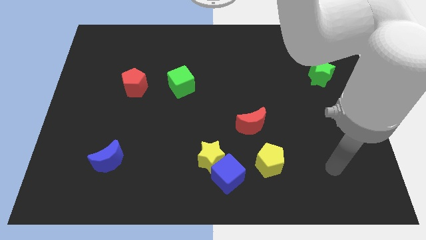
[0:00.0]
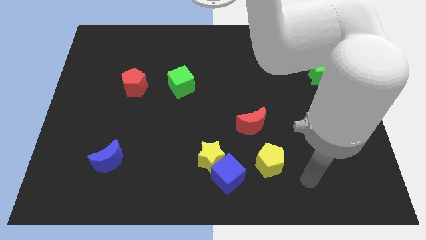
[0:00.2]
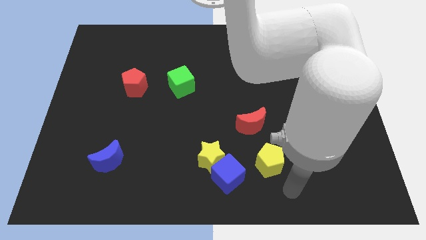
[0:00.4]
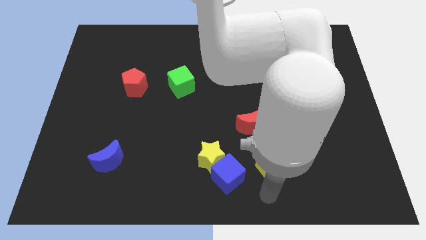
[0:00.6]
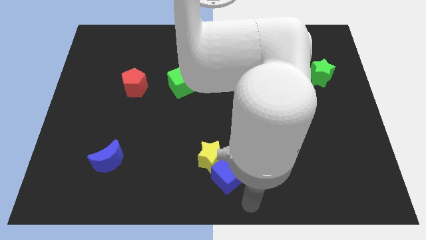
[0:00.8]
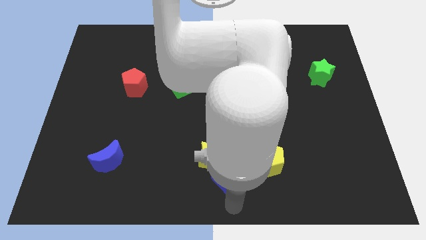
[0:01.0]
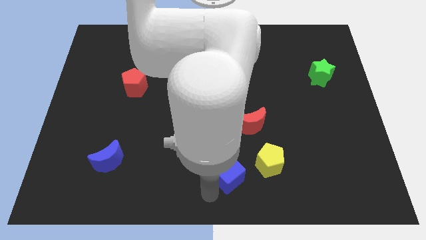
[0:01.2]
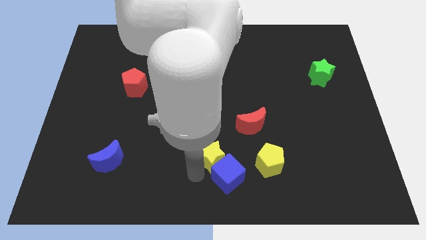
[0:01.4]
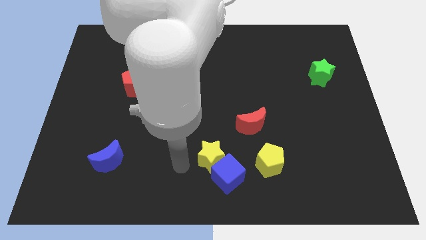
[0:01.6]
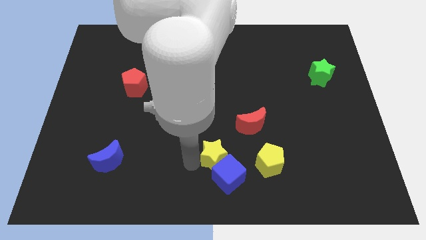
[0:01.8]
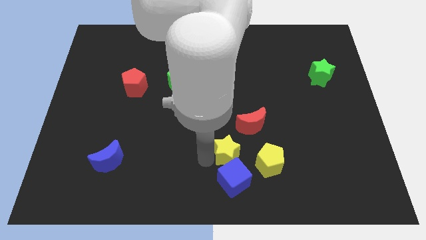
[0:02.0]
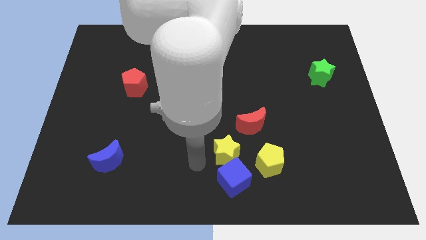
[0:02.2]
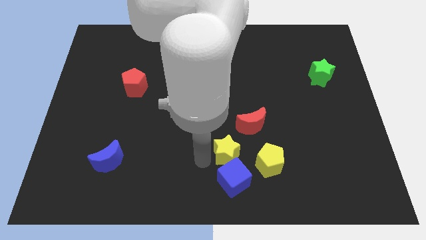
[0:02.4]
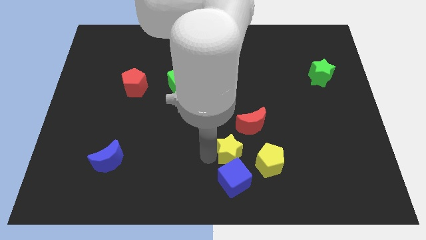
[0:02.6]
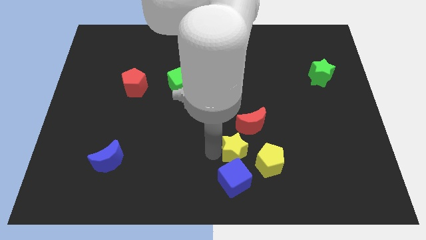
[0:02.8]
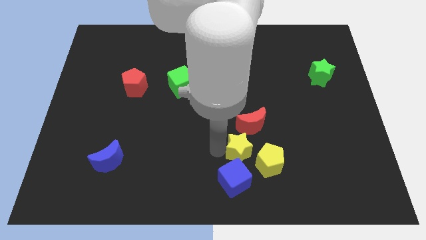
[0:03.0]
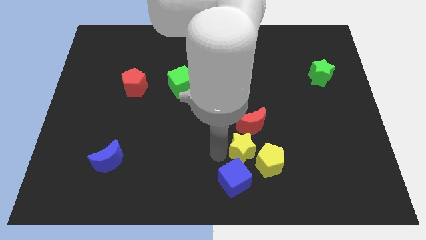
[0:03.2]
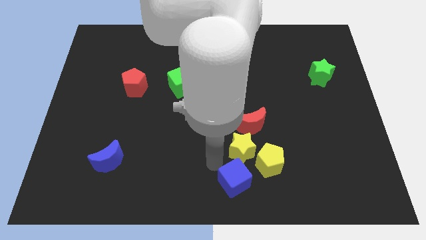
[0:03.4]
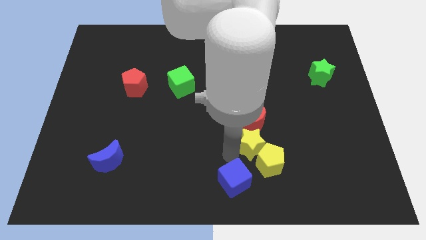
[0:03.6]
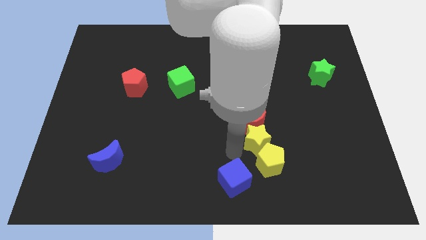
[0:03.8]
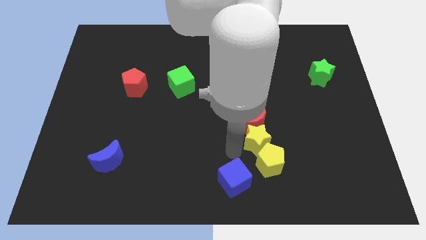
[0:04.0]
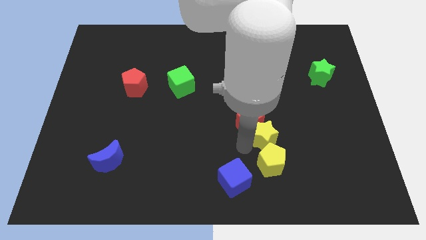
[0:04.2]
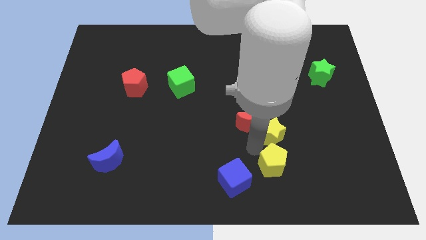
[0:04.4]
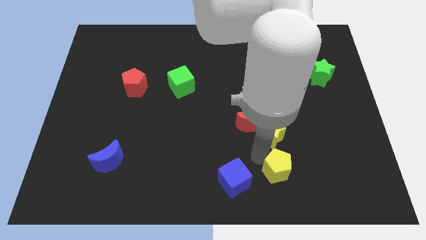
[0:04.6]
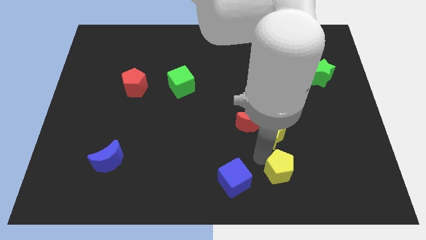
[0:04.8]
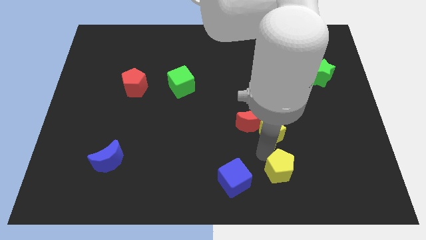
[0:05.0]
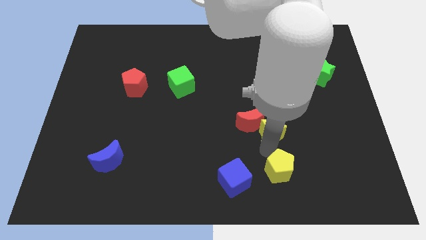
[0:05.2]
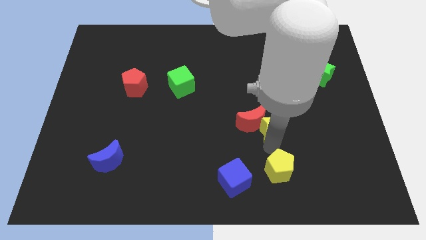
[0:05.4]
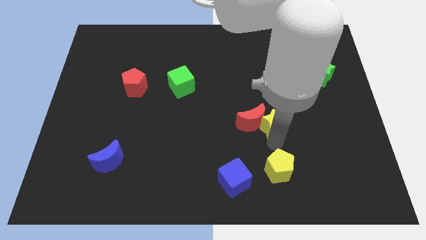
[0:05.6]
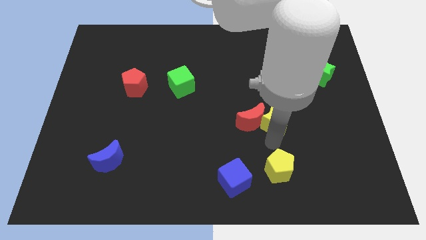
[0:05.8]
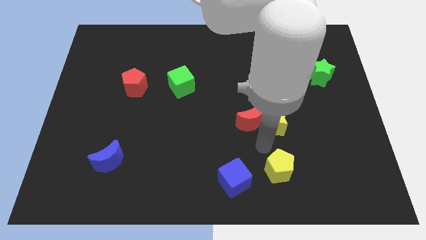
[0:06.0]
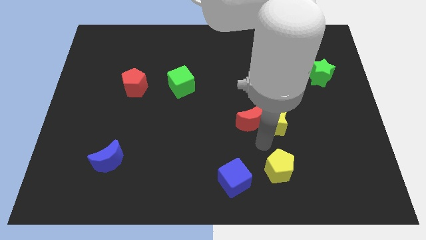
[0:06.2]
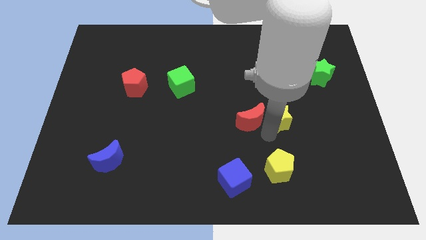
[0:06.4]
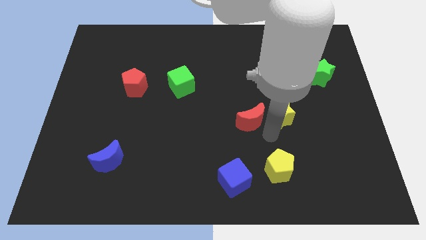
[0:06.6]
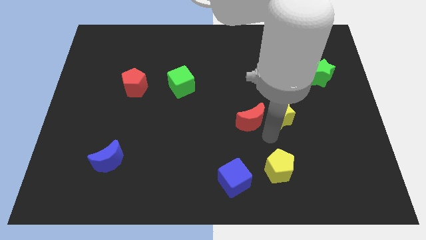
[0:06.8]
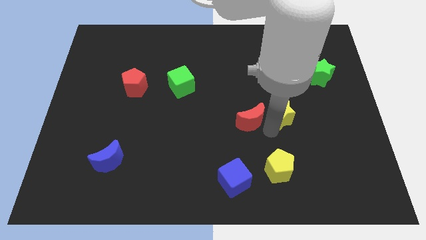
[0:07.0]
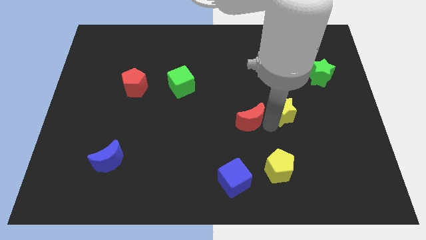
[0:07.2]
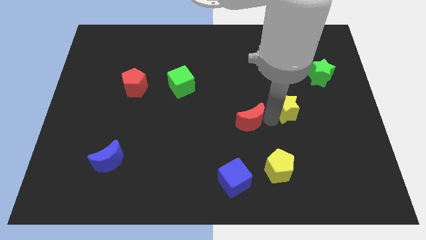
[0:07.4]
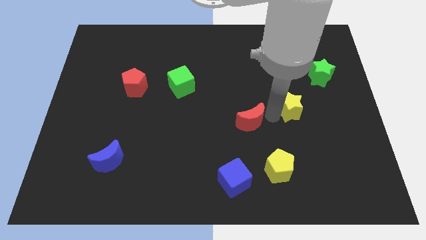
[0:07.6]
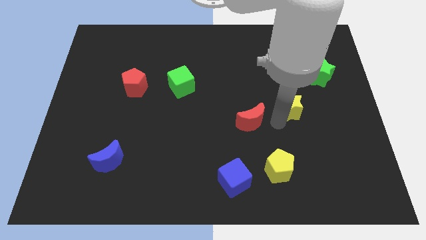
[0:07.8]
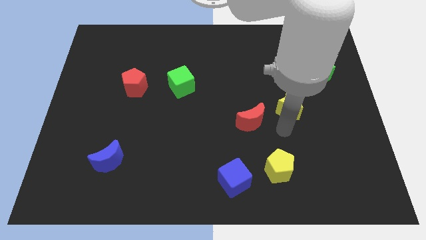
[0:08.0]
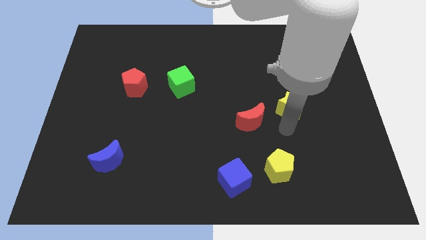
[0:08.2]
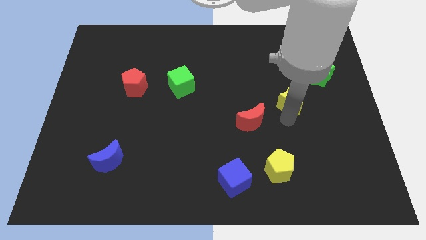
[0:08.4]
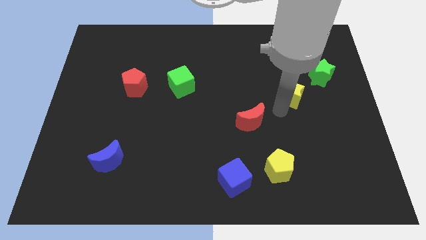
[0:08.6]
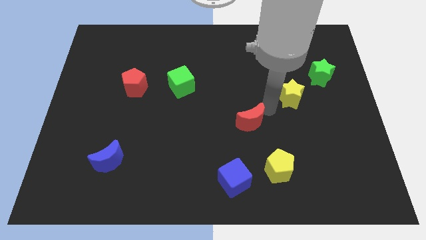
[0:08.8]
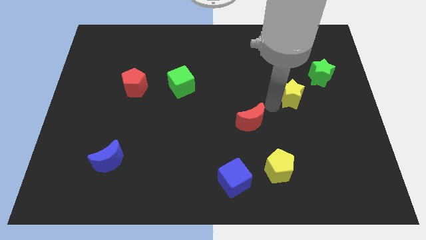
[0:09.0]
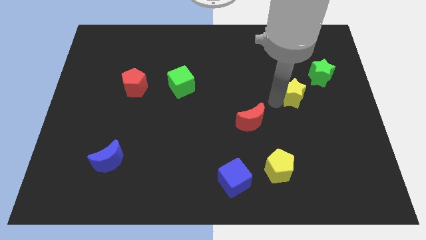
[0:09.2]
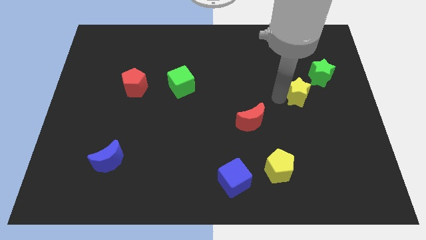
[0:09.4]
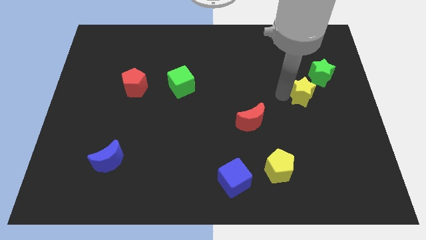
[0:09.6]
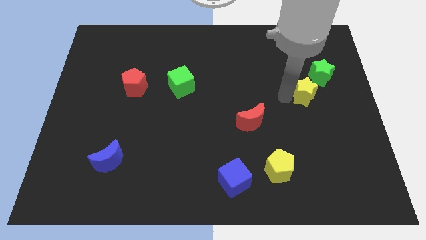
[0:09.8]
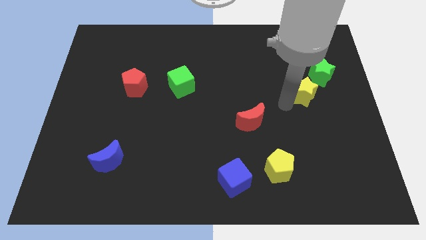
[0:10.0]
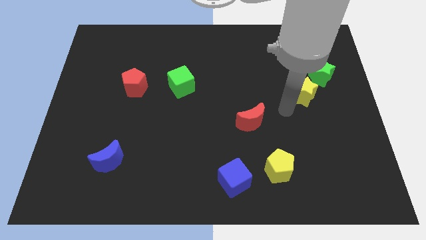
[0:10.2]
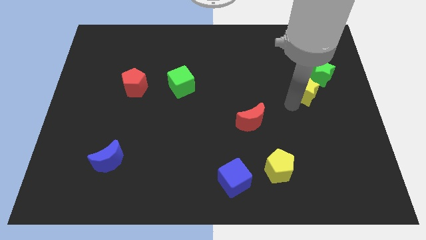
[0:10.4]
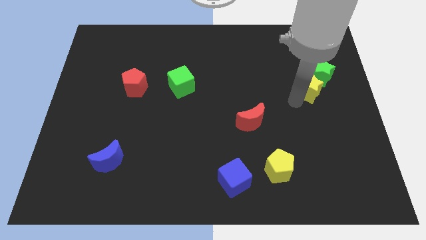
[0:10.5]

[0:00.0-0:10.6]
move the yellow star towards the green star
